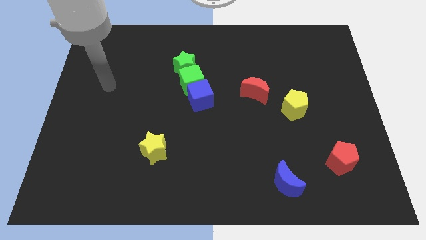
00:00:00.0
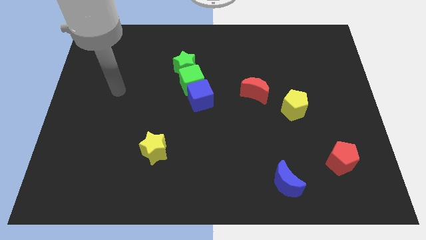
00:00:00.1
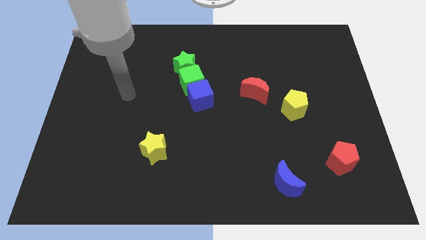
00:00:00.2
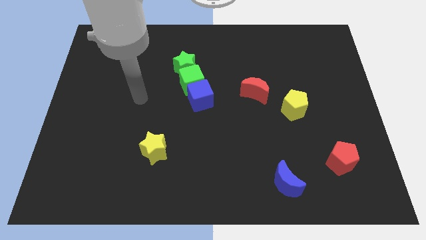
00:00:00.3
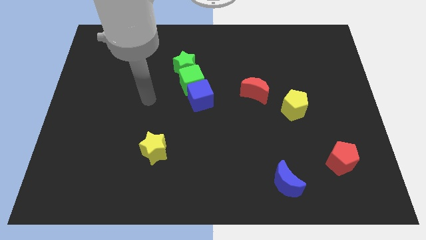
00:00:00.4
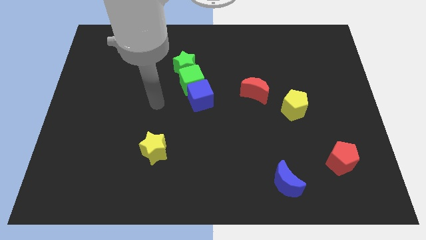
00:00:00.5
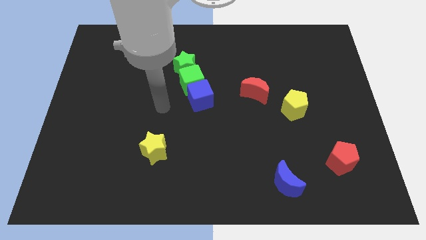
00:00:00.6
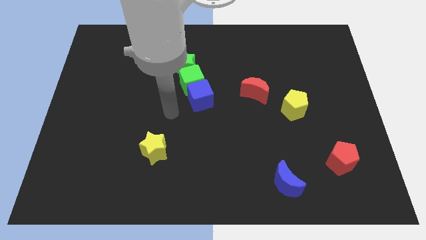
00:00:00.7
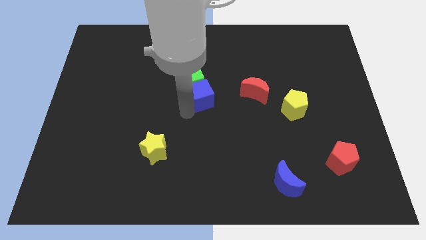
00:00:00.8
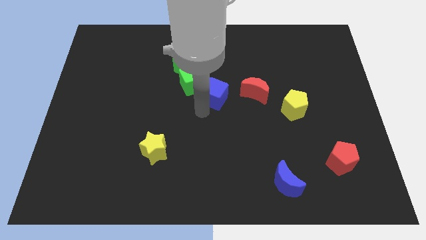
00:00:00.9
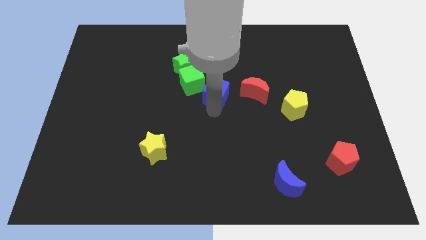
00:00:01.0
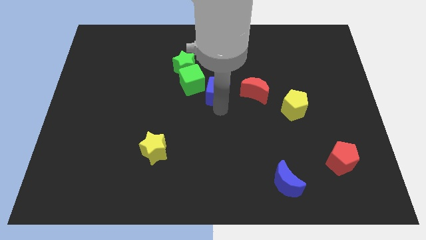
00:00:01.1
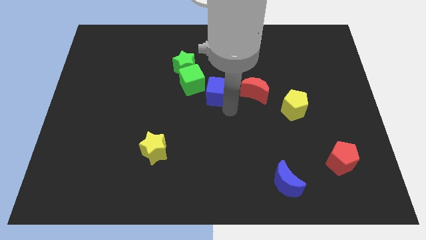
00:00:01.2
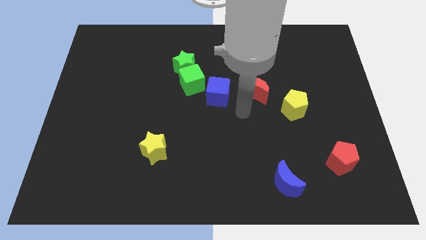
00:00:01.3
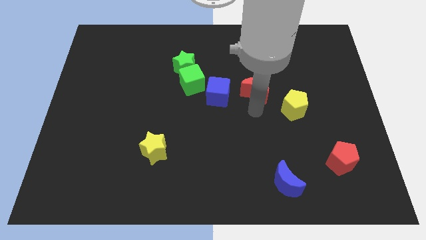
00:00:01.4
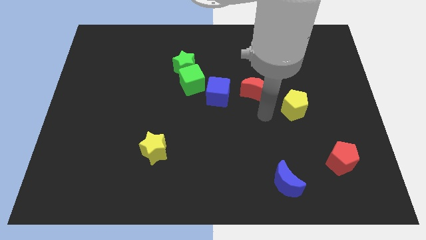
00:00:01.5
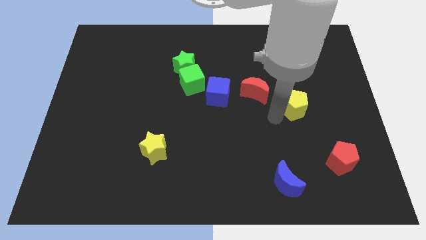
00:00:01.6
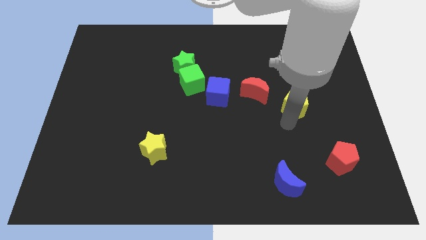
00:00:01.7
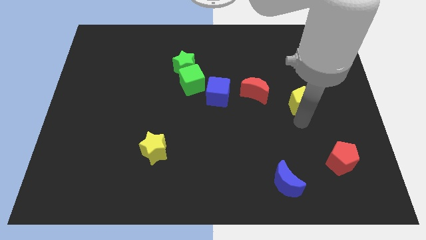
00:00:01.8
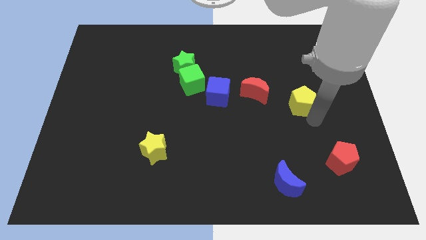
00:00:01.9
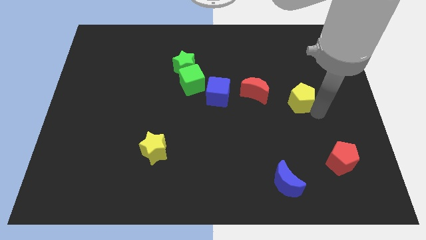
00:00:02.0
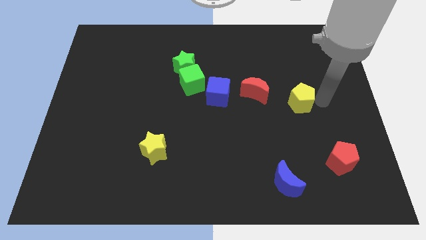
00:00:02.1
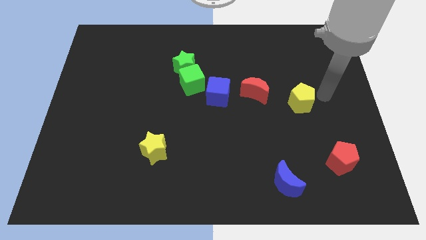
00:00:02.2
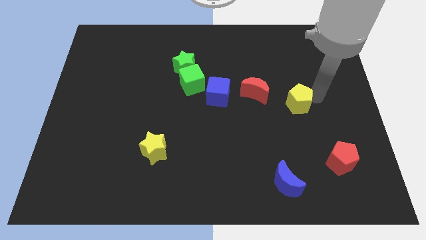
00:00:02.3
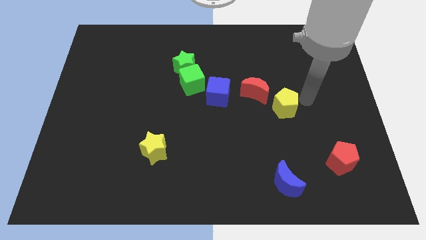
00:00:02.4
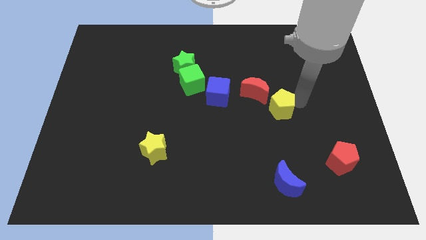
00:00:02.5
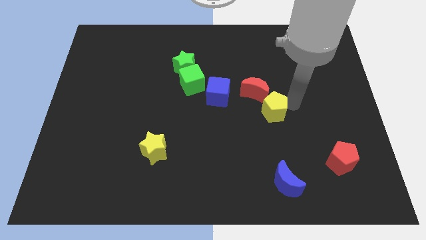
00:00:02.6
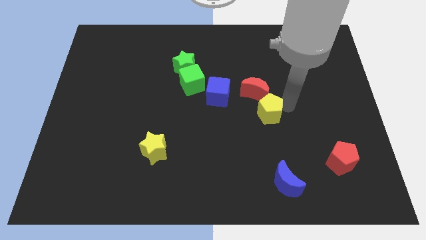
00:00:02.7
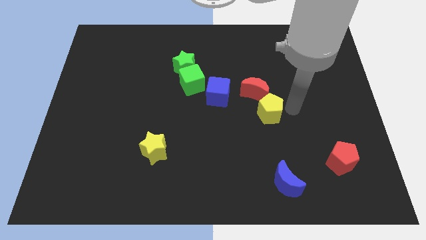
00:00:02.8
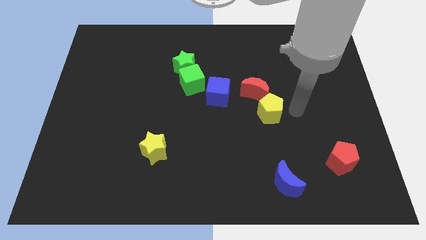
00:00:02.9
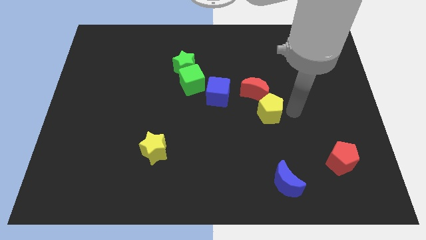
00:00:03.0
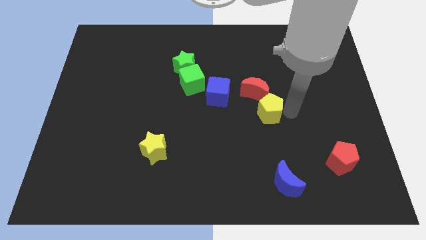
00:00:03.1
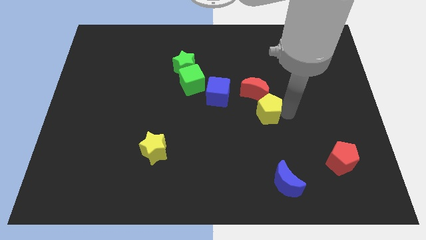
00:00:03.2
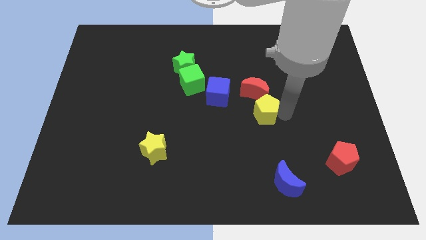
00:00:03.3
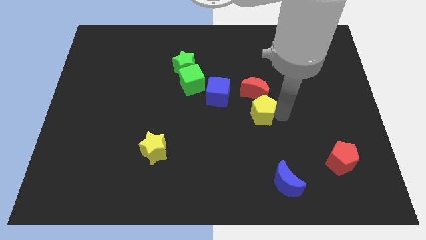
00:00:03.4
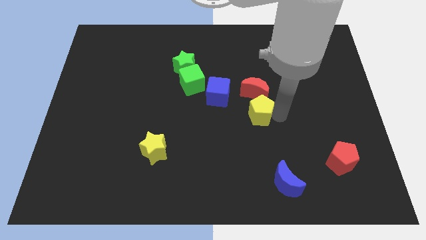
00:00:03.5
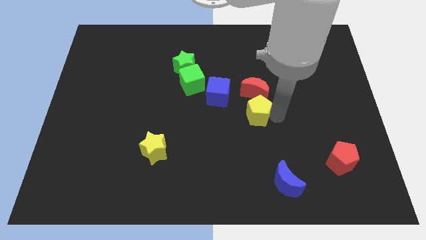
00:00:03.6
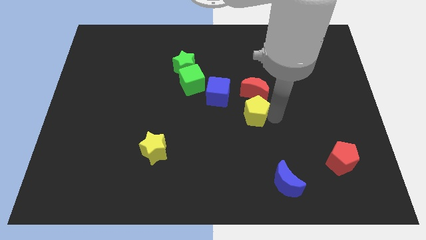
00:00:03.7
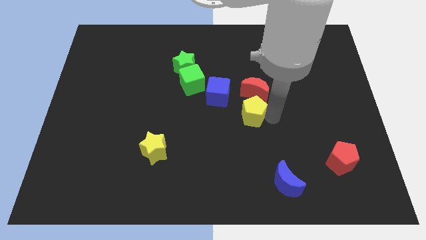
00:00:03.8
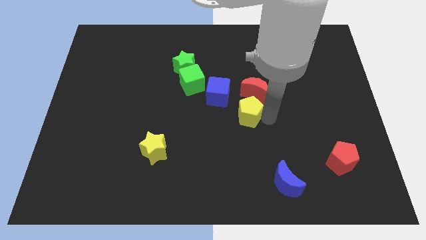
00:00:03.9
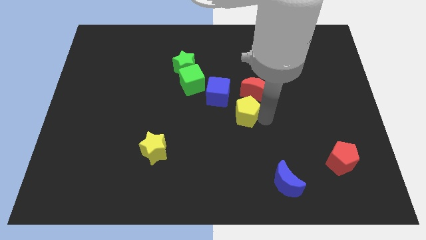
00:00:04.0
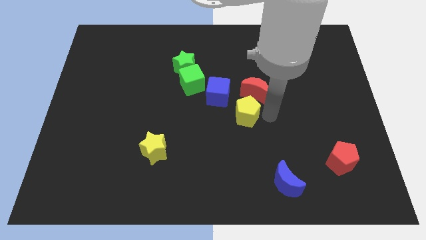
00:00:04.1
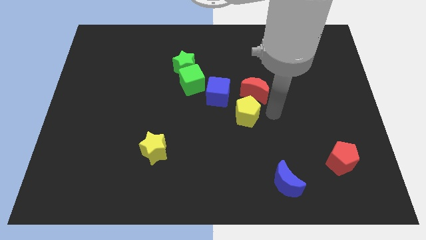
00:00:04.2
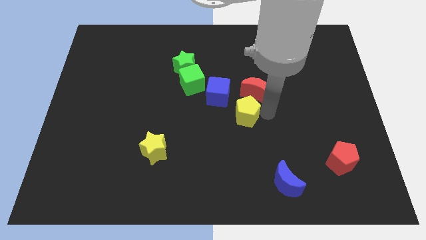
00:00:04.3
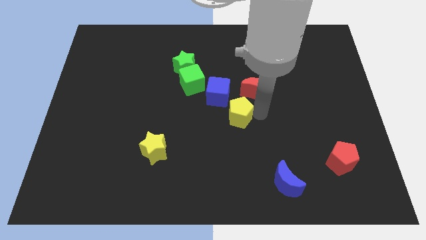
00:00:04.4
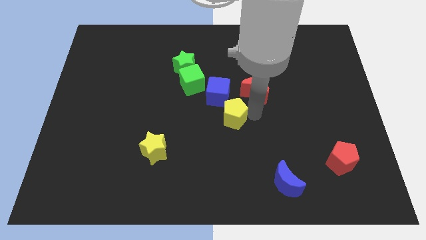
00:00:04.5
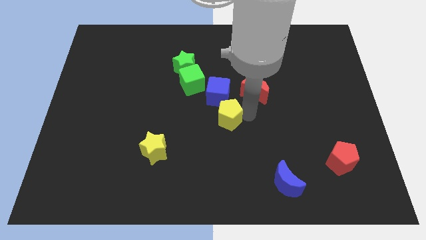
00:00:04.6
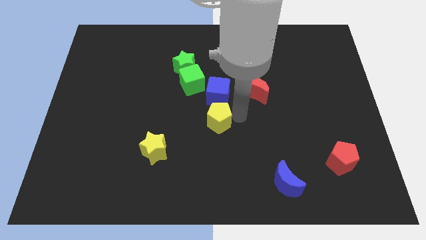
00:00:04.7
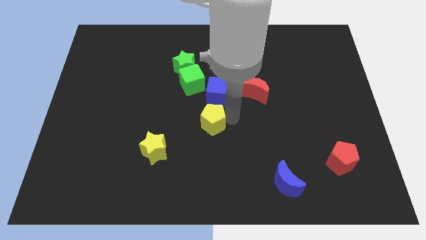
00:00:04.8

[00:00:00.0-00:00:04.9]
move the yellow pentagon to the bottom of the green cube

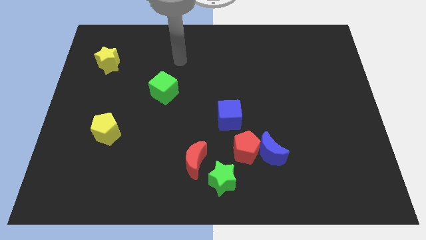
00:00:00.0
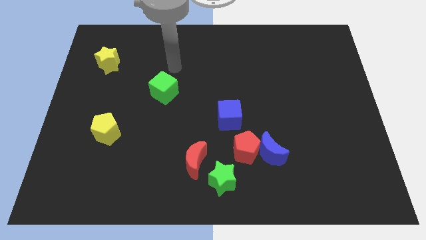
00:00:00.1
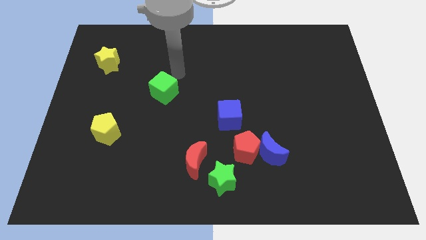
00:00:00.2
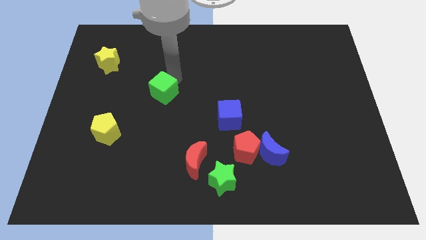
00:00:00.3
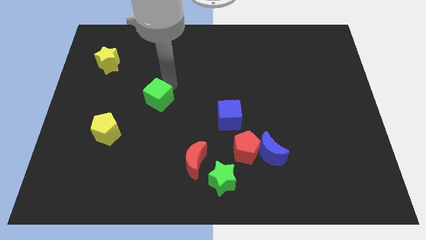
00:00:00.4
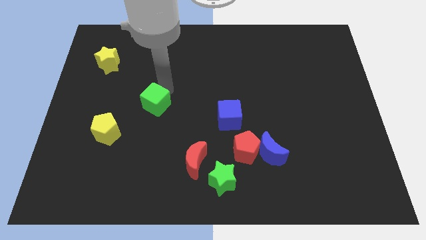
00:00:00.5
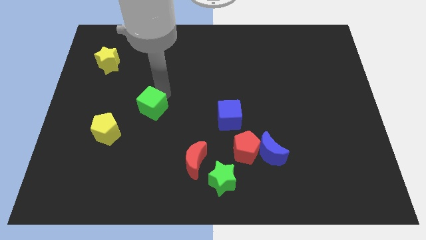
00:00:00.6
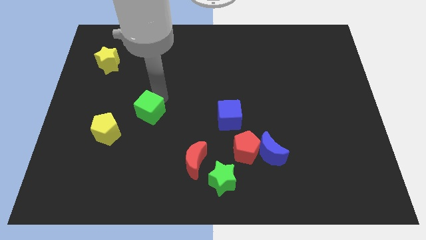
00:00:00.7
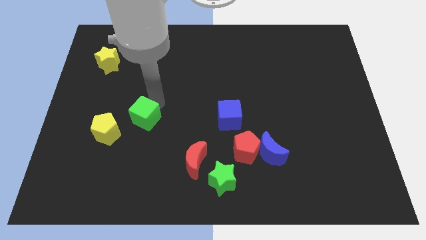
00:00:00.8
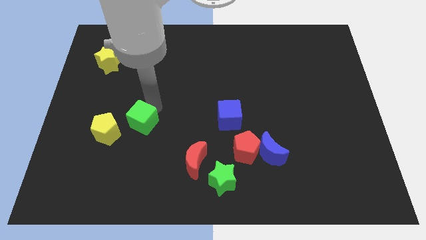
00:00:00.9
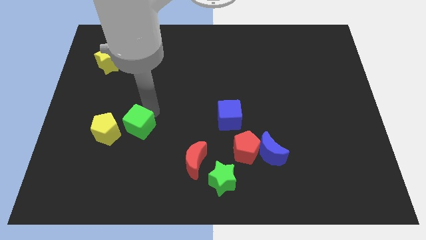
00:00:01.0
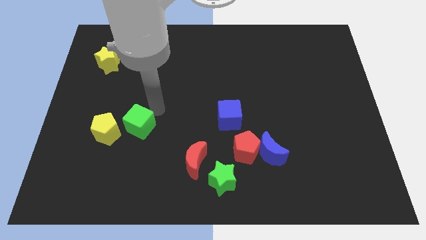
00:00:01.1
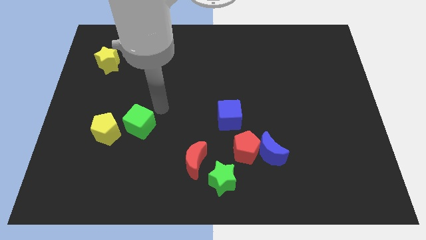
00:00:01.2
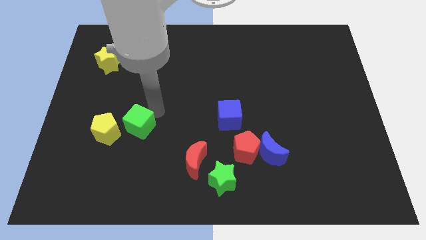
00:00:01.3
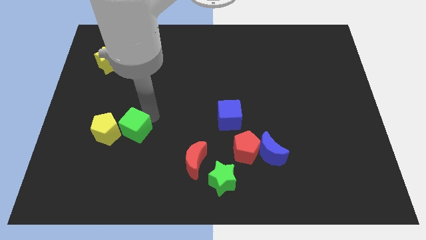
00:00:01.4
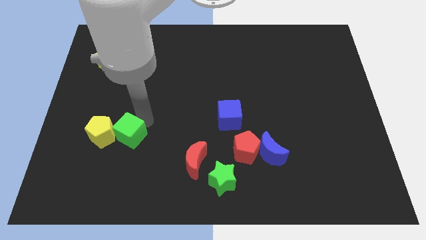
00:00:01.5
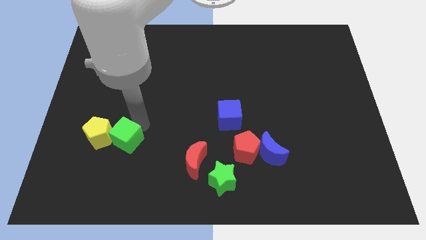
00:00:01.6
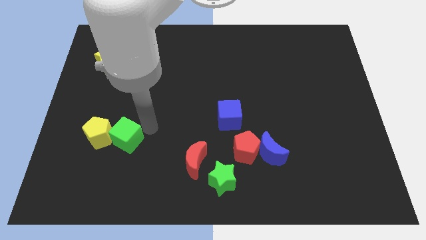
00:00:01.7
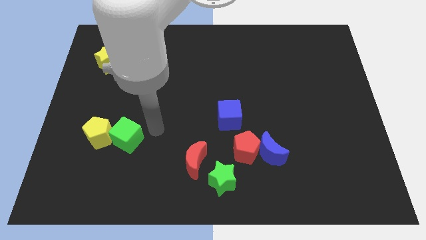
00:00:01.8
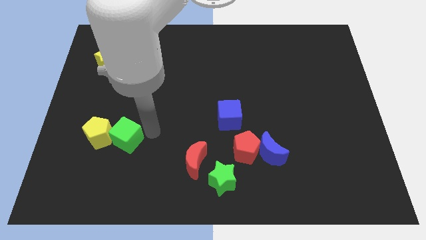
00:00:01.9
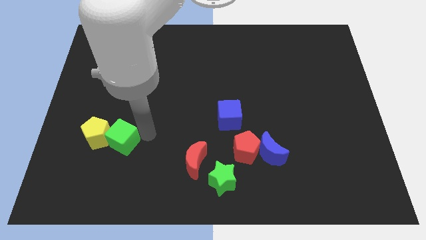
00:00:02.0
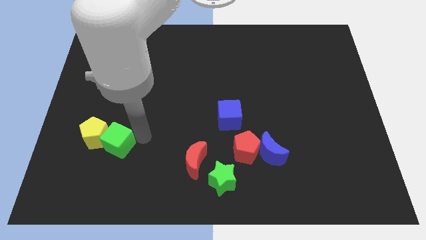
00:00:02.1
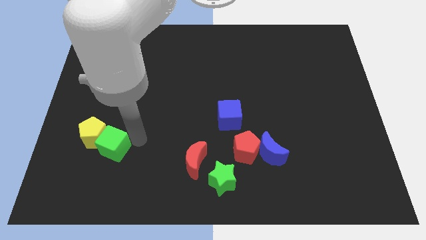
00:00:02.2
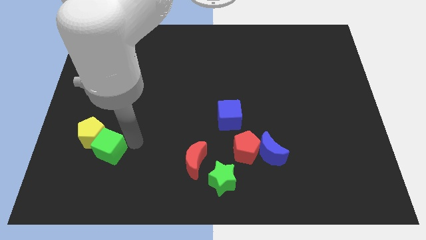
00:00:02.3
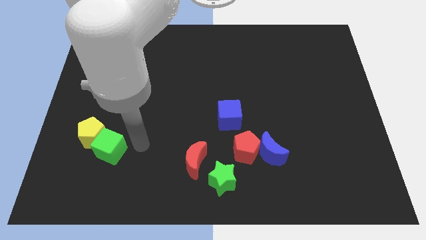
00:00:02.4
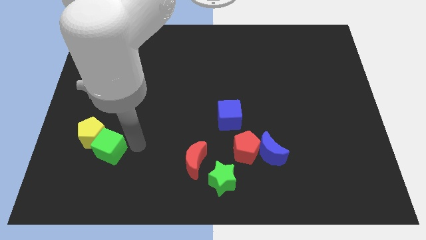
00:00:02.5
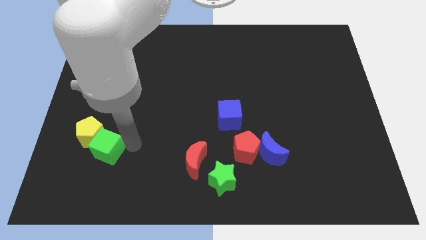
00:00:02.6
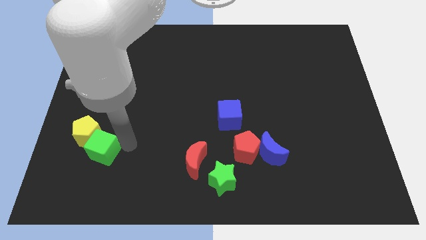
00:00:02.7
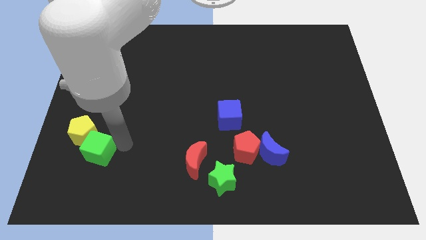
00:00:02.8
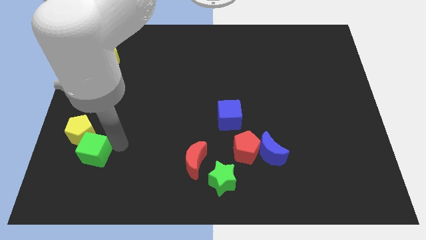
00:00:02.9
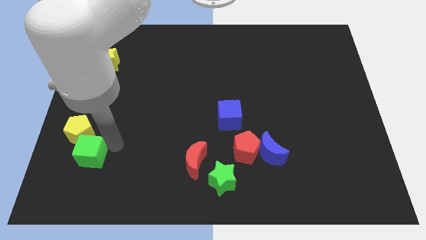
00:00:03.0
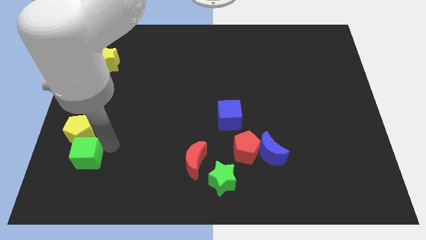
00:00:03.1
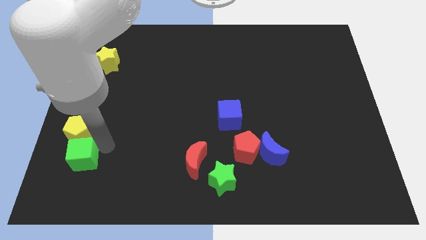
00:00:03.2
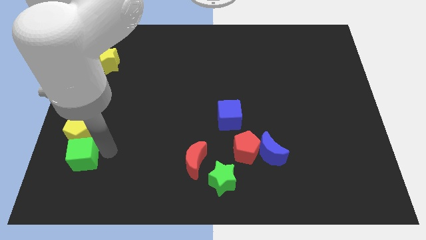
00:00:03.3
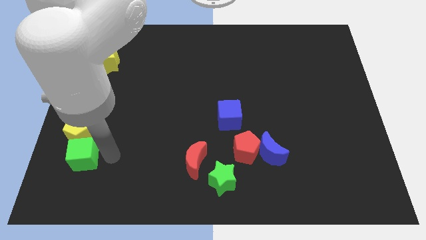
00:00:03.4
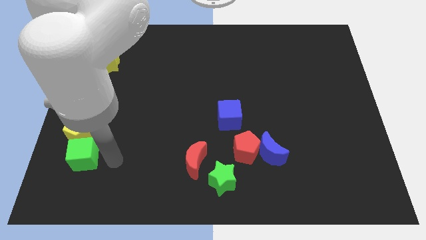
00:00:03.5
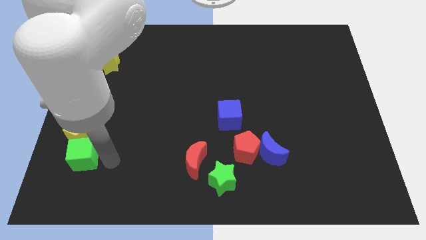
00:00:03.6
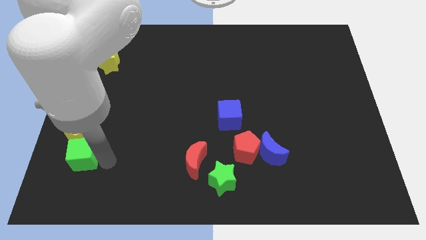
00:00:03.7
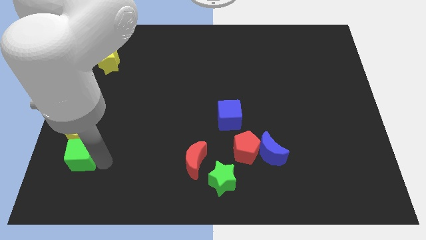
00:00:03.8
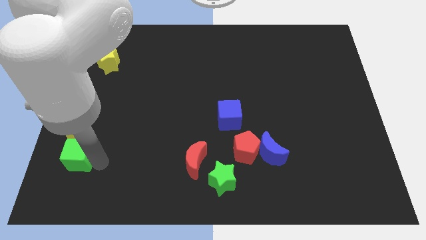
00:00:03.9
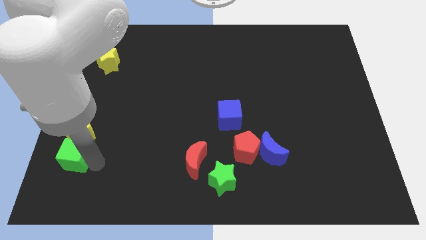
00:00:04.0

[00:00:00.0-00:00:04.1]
move the green cube to the bottom left side of the yellow pentagon
